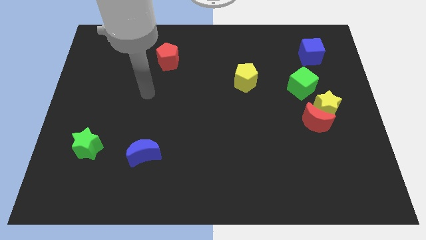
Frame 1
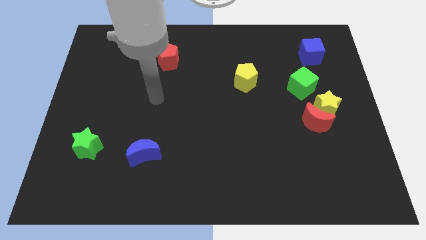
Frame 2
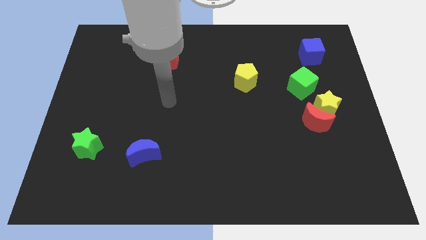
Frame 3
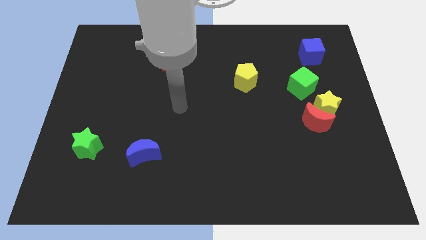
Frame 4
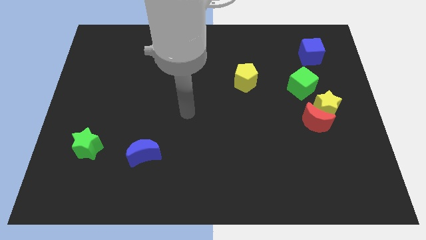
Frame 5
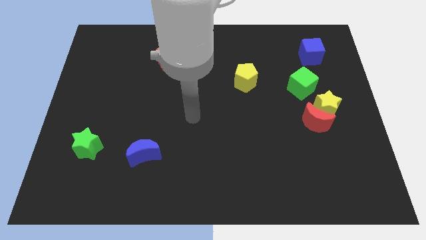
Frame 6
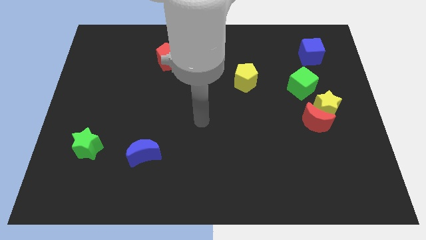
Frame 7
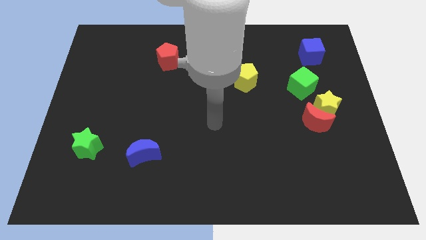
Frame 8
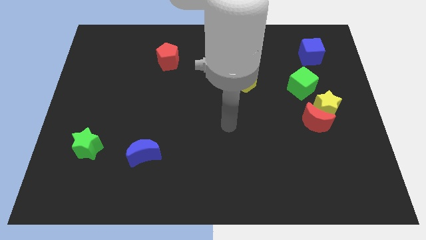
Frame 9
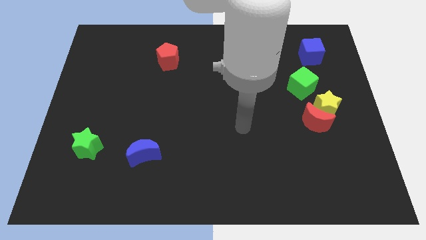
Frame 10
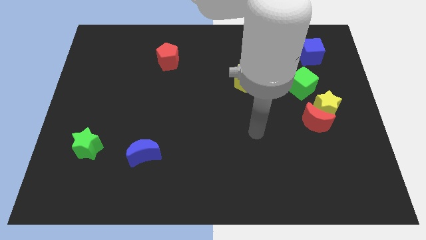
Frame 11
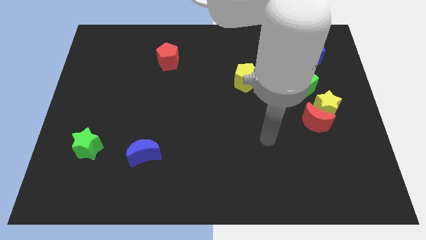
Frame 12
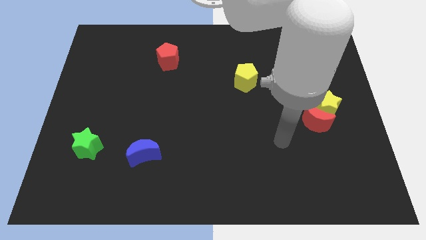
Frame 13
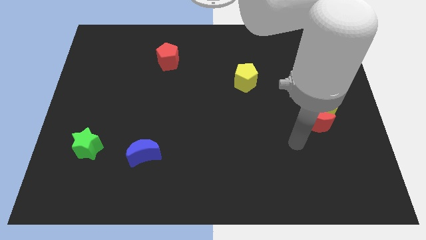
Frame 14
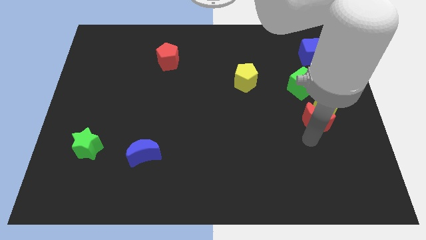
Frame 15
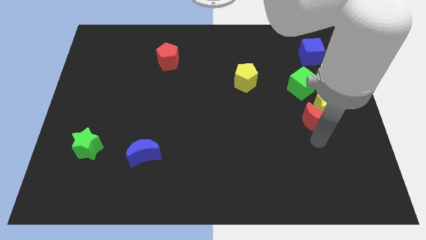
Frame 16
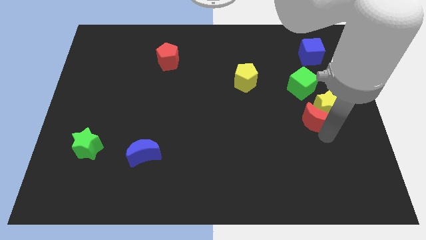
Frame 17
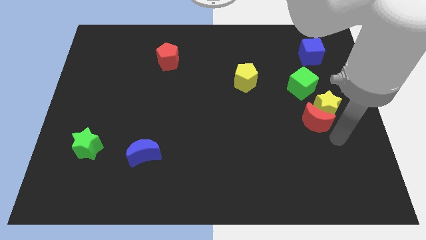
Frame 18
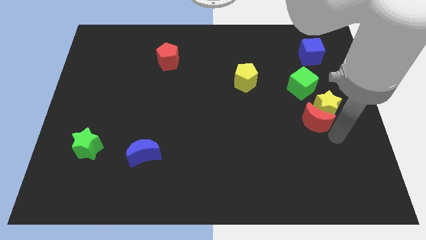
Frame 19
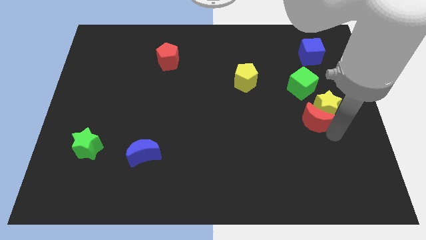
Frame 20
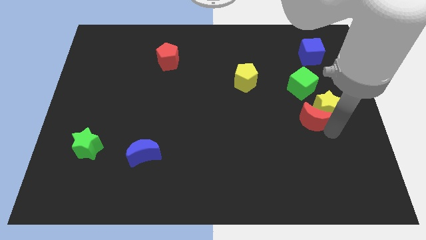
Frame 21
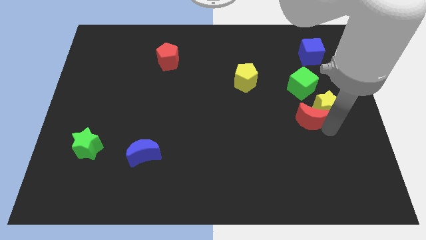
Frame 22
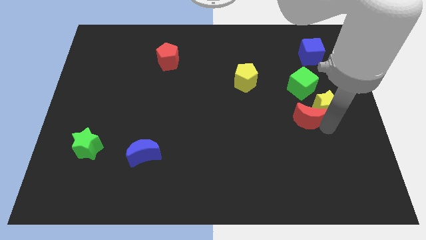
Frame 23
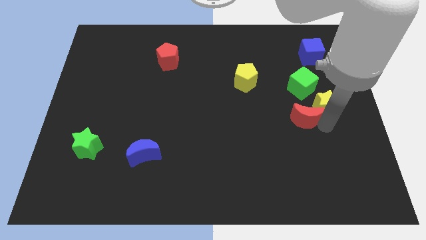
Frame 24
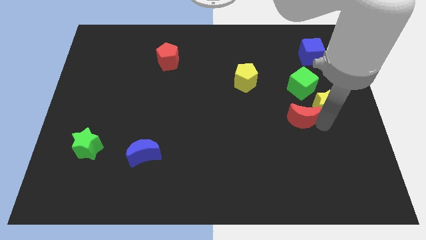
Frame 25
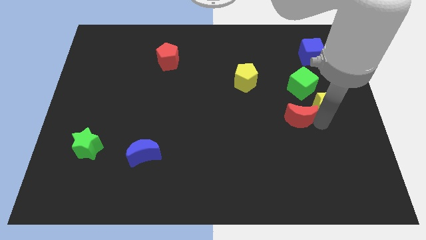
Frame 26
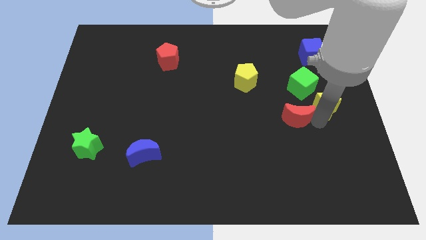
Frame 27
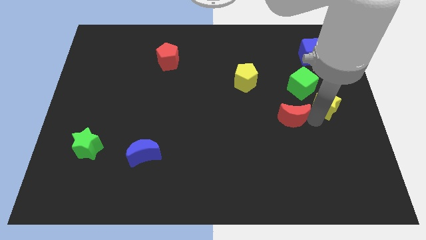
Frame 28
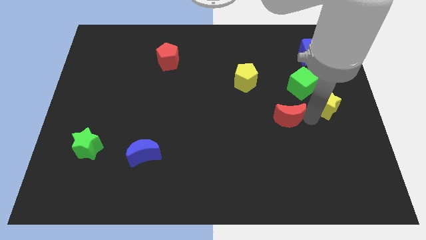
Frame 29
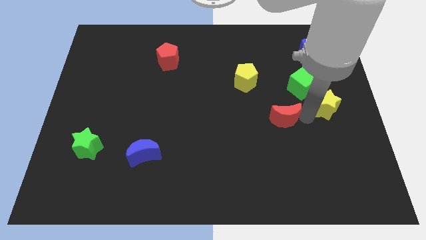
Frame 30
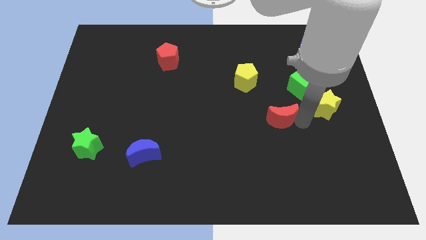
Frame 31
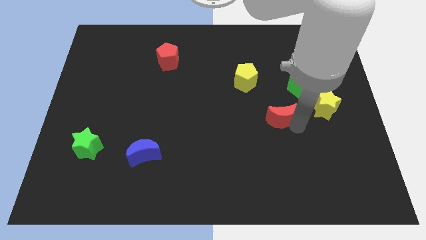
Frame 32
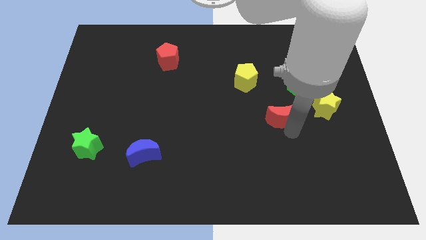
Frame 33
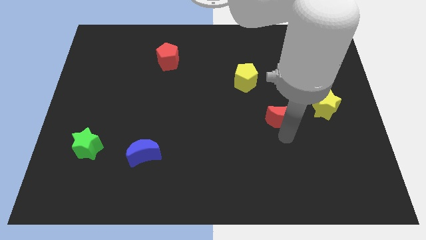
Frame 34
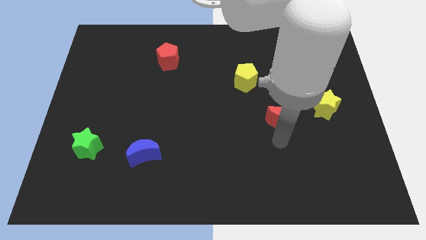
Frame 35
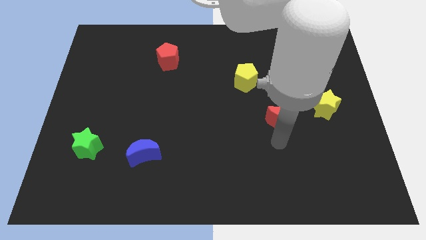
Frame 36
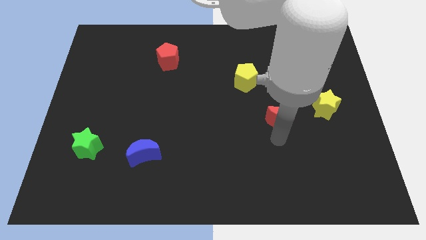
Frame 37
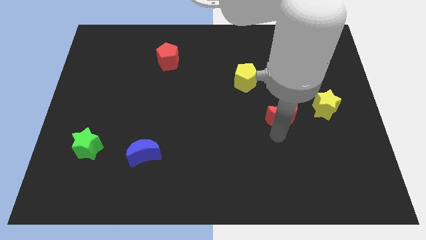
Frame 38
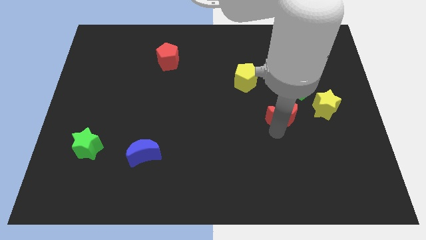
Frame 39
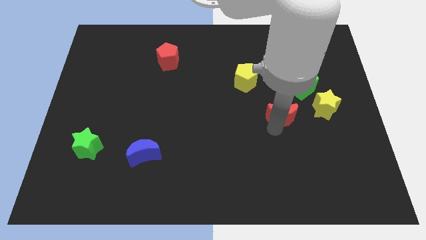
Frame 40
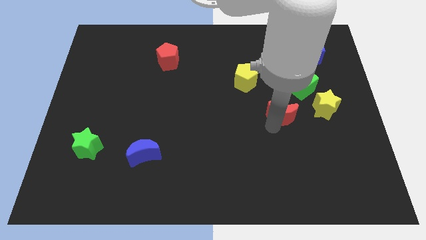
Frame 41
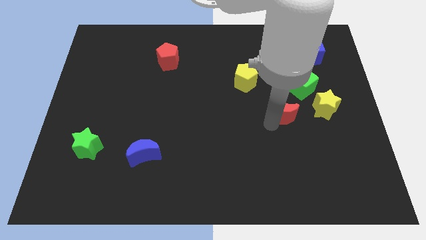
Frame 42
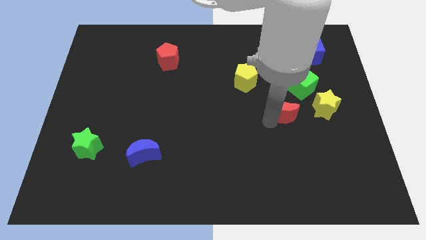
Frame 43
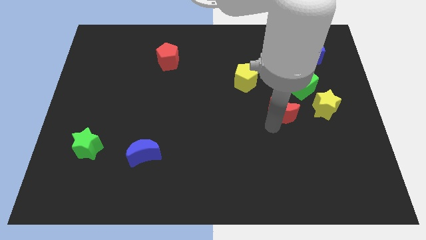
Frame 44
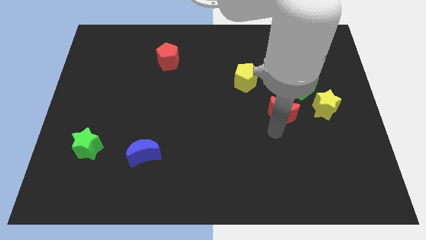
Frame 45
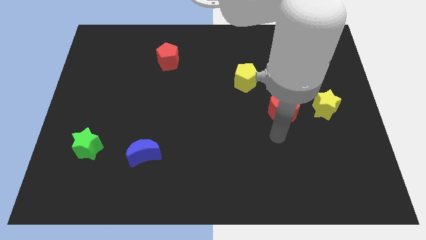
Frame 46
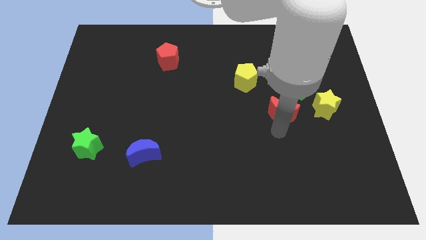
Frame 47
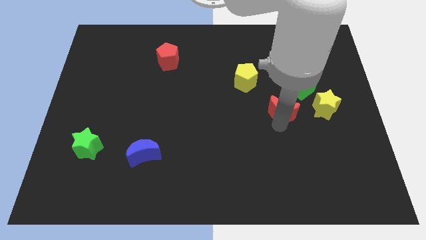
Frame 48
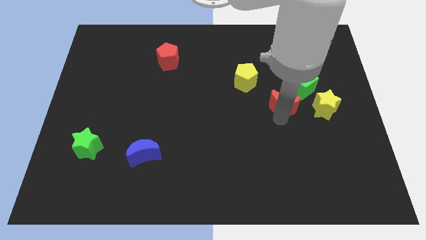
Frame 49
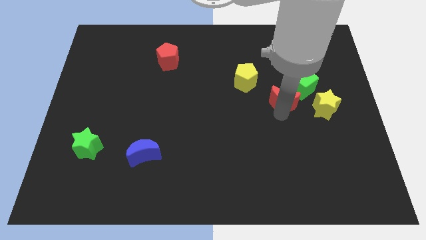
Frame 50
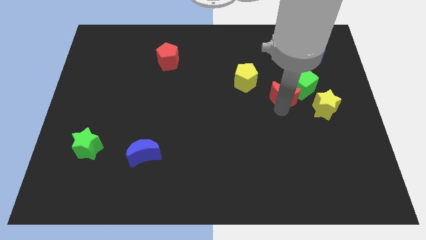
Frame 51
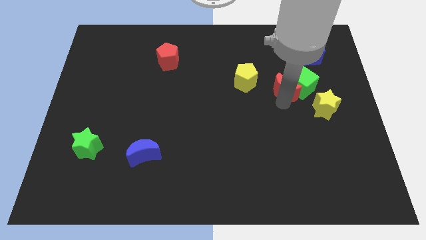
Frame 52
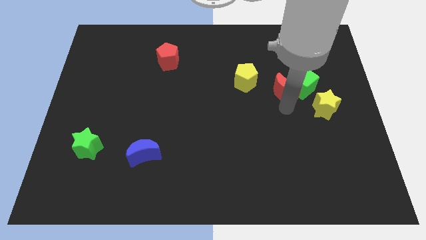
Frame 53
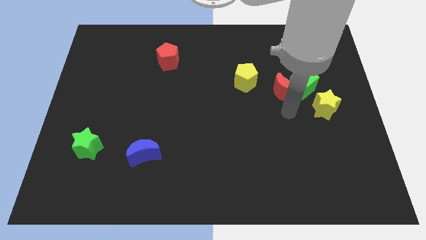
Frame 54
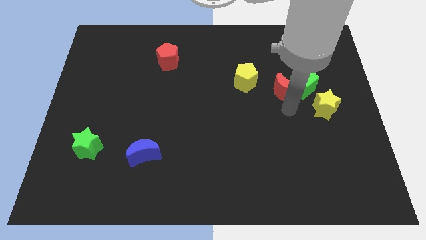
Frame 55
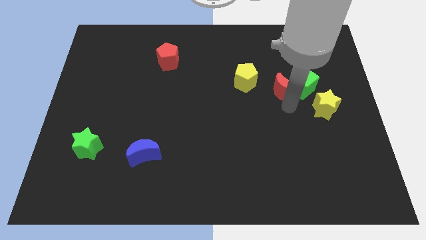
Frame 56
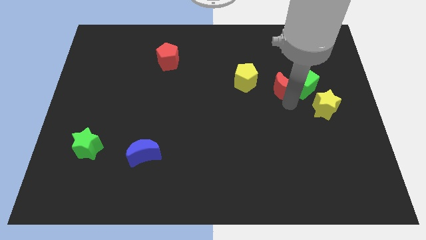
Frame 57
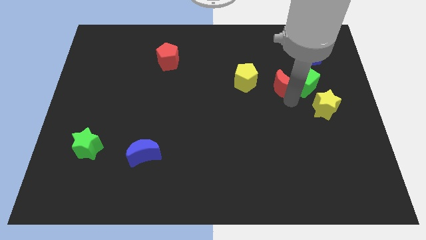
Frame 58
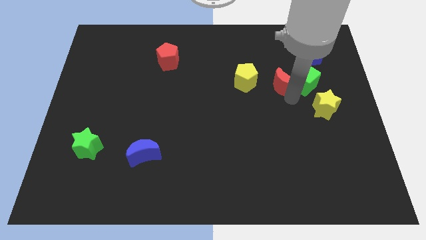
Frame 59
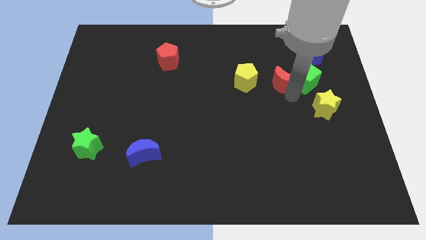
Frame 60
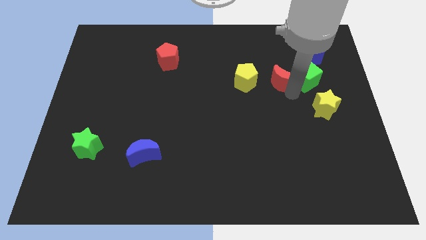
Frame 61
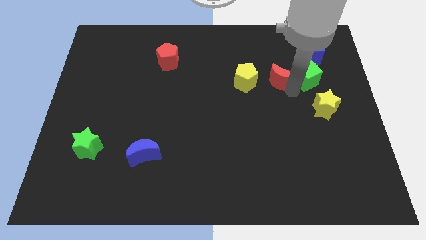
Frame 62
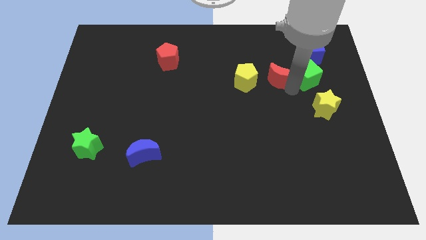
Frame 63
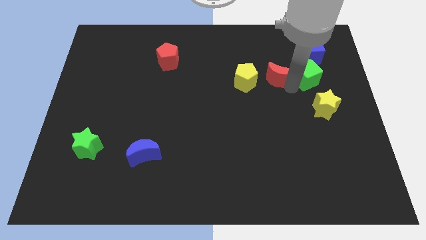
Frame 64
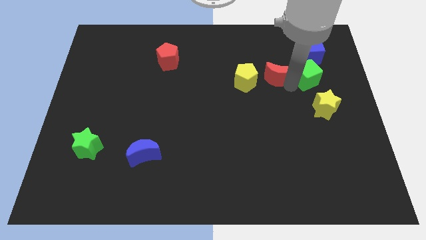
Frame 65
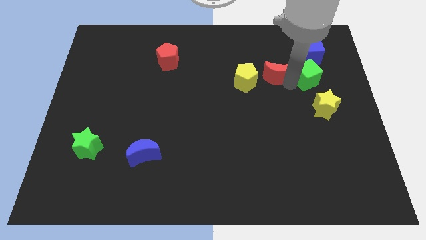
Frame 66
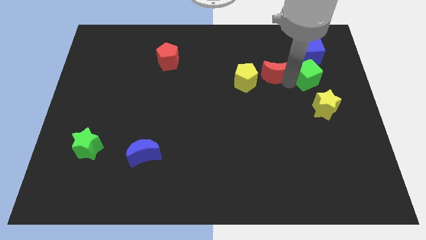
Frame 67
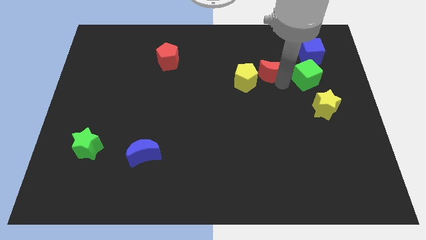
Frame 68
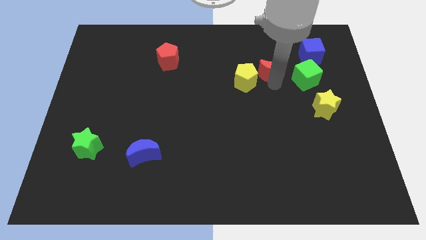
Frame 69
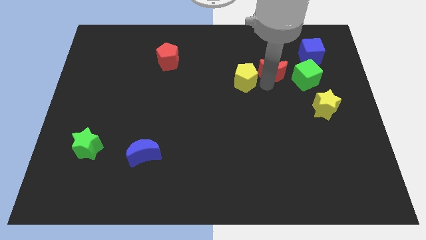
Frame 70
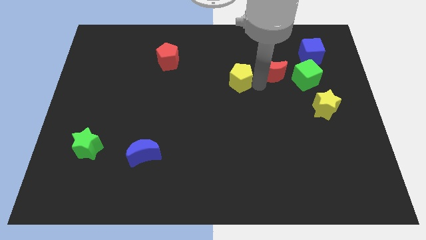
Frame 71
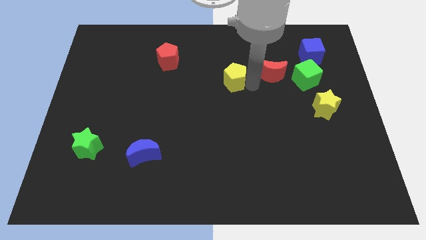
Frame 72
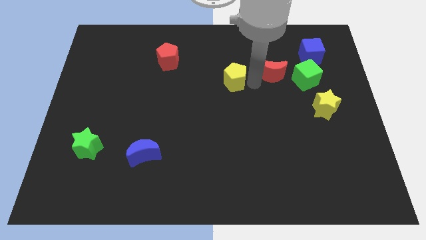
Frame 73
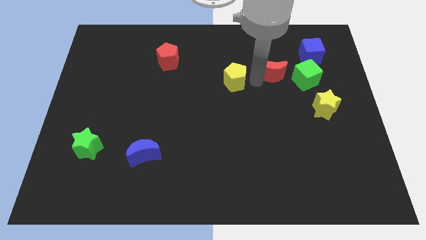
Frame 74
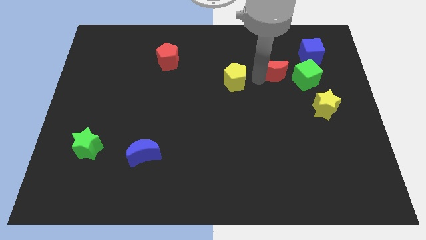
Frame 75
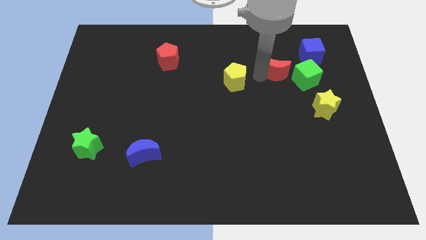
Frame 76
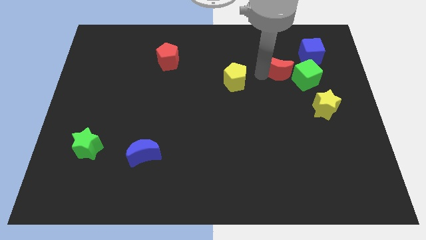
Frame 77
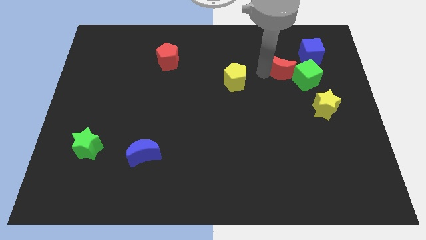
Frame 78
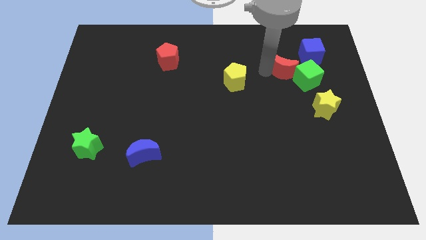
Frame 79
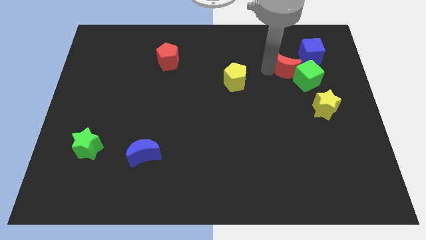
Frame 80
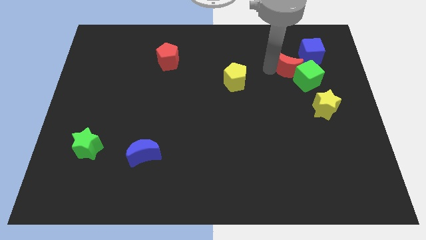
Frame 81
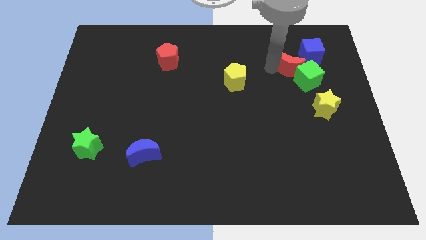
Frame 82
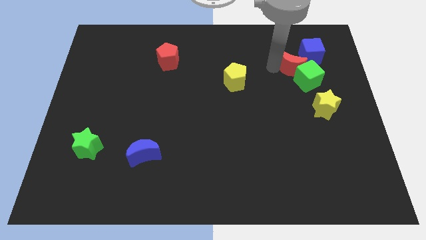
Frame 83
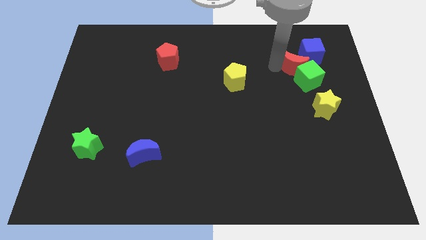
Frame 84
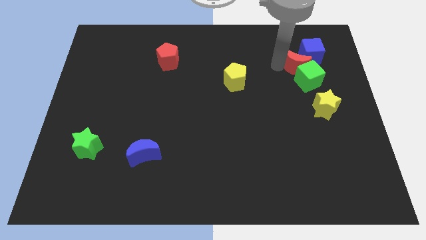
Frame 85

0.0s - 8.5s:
move the red moon to the blue cube
